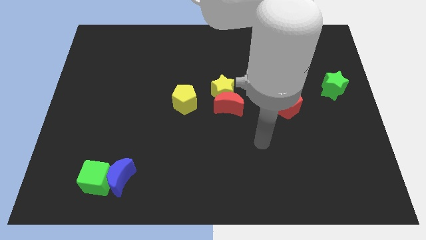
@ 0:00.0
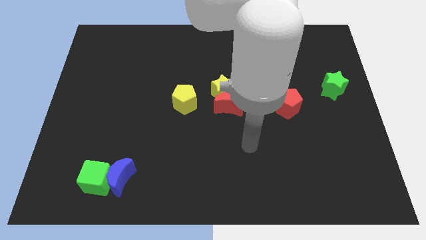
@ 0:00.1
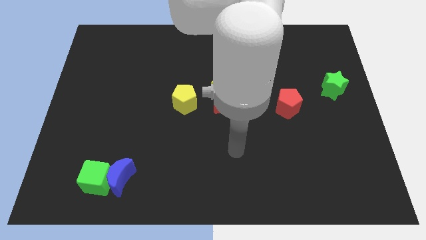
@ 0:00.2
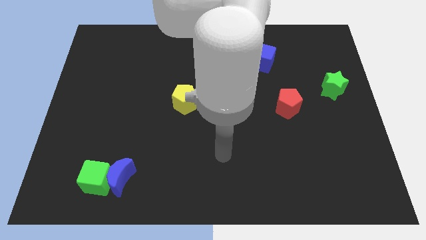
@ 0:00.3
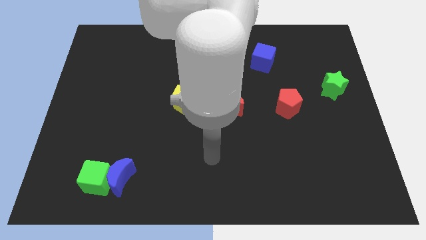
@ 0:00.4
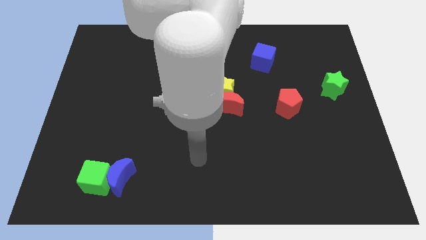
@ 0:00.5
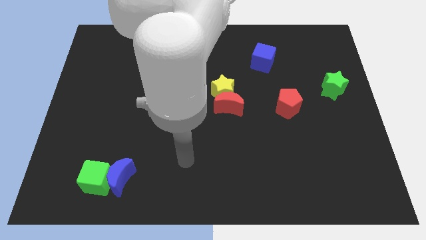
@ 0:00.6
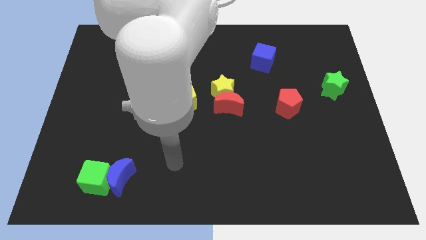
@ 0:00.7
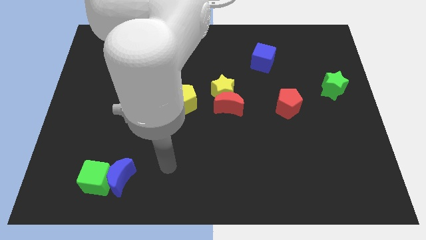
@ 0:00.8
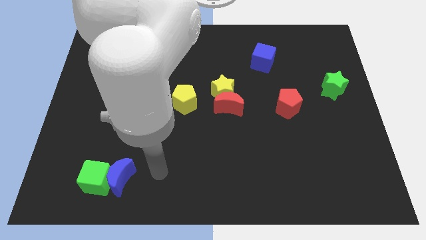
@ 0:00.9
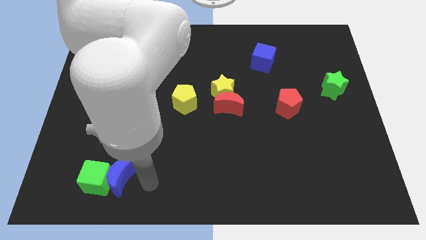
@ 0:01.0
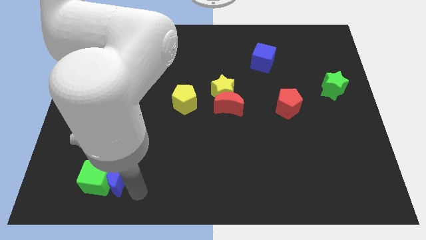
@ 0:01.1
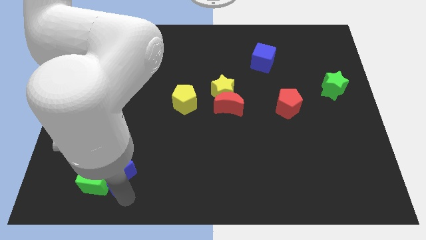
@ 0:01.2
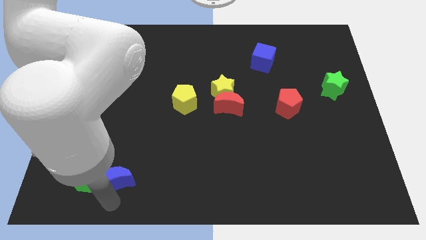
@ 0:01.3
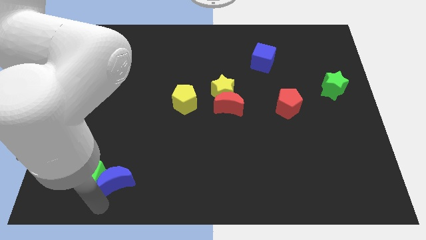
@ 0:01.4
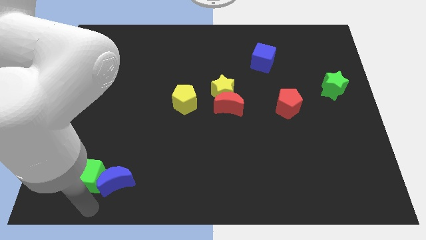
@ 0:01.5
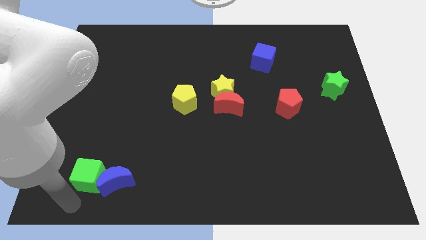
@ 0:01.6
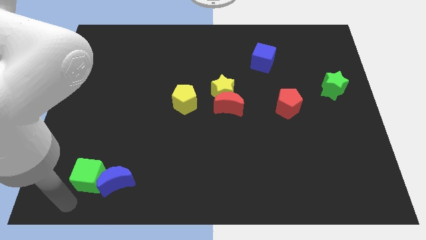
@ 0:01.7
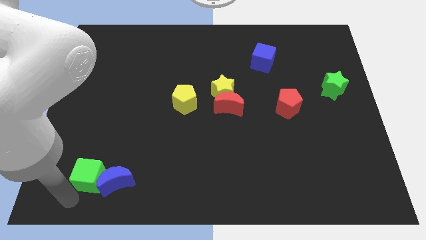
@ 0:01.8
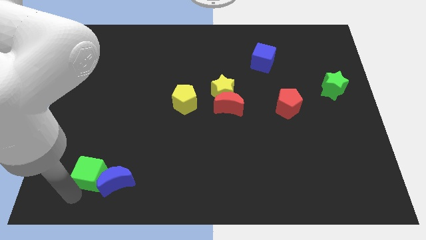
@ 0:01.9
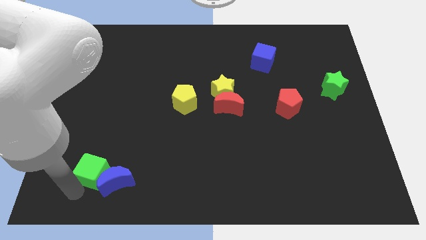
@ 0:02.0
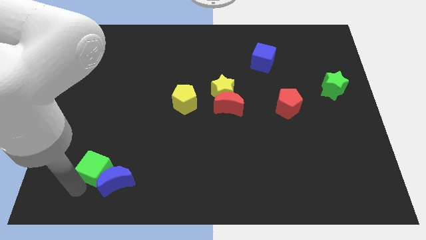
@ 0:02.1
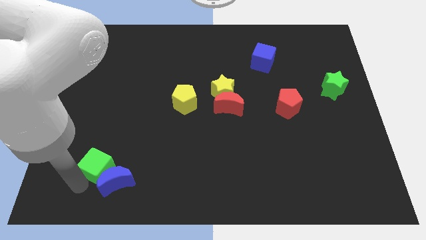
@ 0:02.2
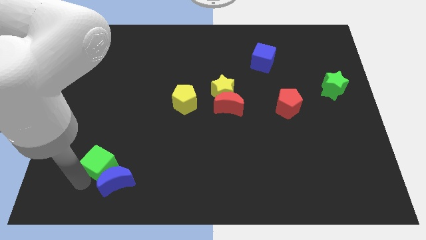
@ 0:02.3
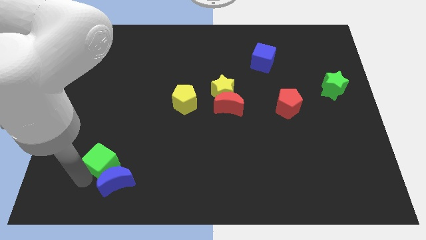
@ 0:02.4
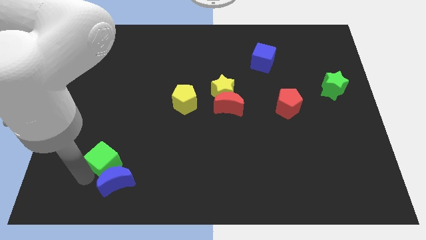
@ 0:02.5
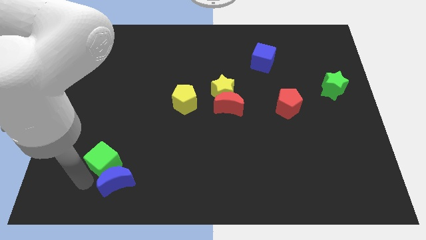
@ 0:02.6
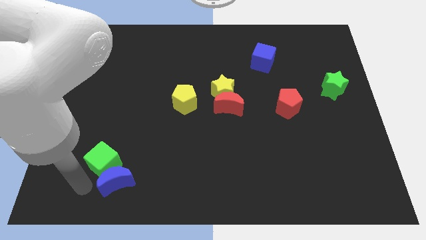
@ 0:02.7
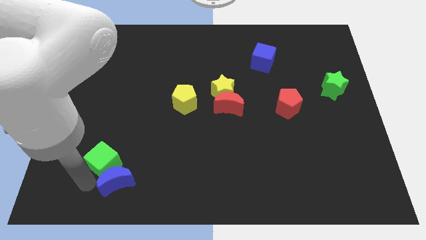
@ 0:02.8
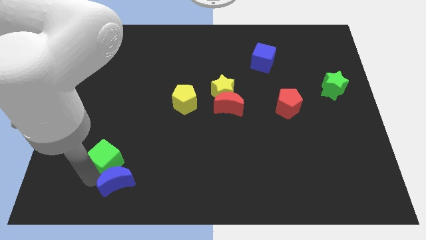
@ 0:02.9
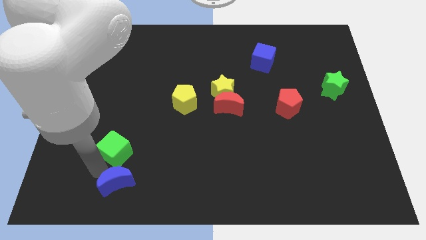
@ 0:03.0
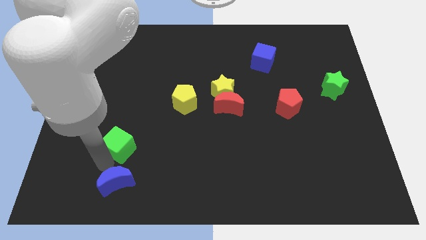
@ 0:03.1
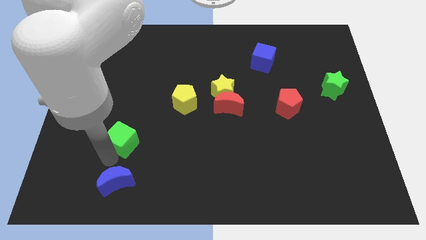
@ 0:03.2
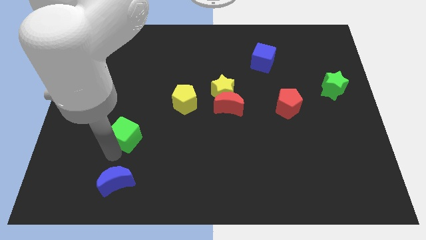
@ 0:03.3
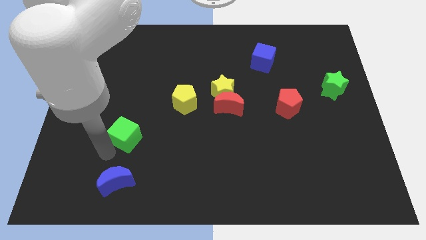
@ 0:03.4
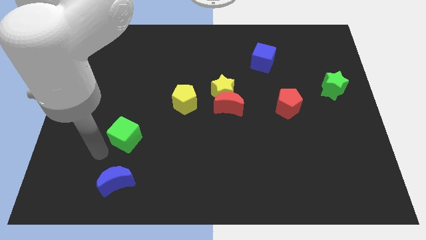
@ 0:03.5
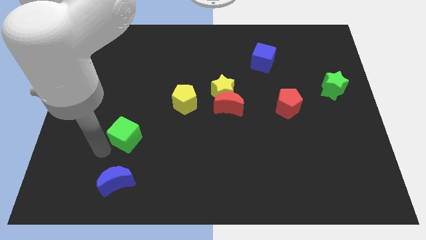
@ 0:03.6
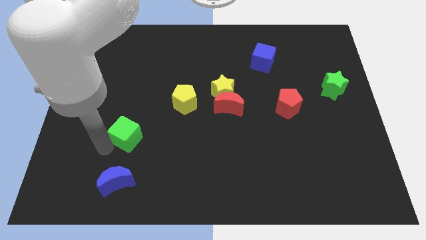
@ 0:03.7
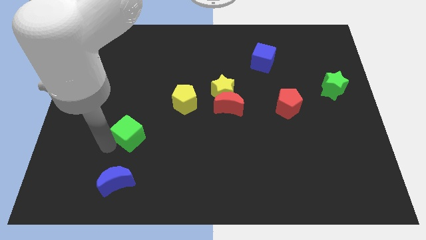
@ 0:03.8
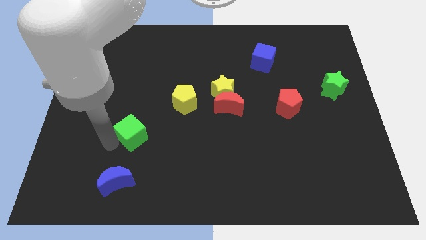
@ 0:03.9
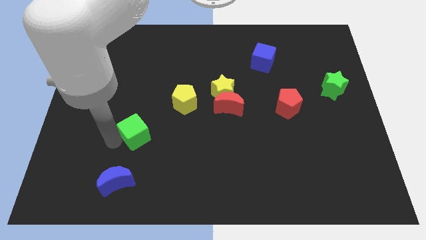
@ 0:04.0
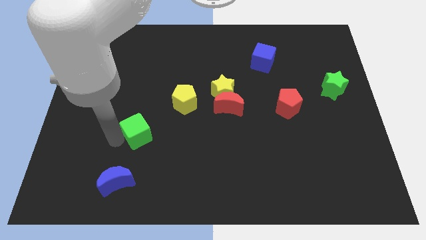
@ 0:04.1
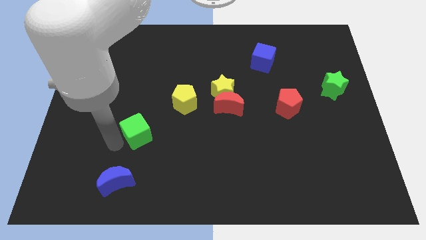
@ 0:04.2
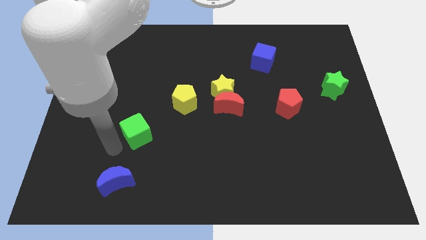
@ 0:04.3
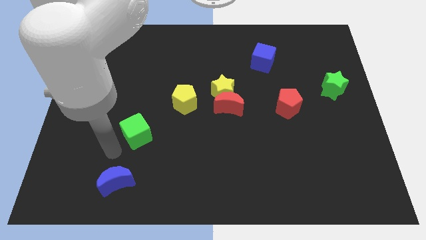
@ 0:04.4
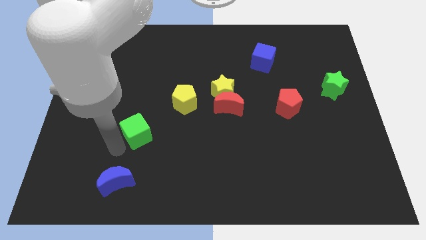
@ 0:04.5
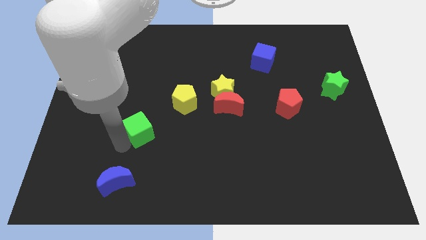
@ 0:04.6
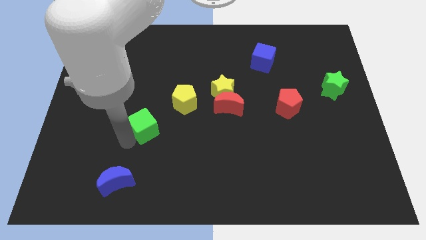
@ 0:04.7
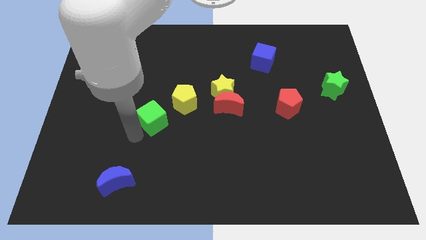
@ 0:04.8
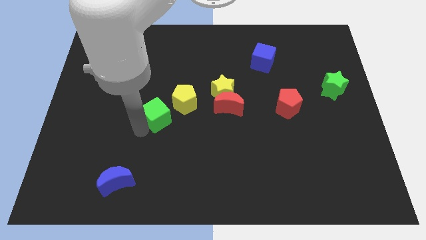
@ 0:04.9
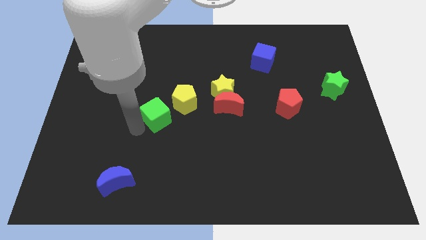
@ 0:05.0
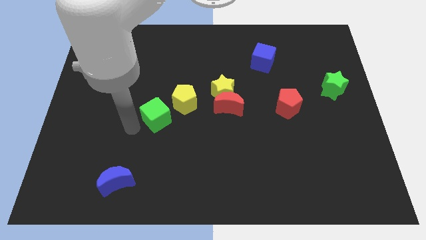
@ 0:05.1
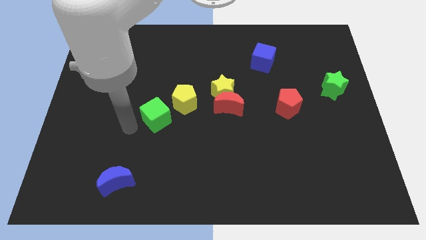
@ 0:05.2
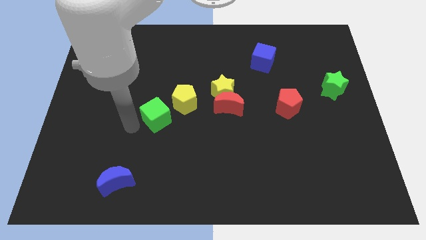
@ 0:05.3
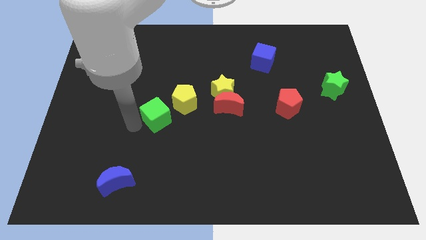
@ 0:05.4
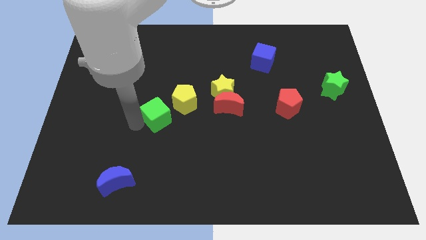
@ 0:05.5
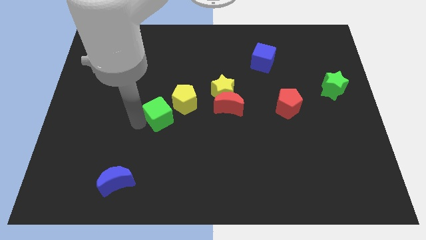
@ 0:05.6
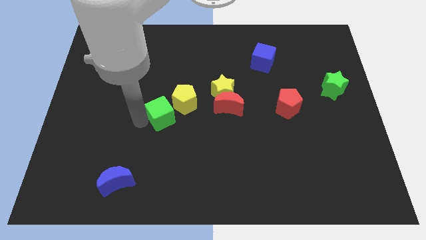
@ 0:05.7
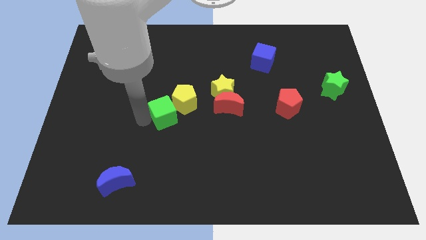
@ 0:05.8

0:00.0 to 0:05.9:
slide the green cube to the yellow pentagon

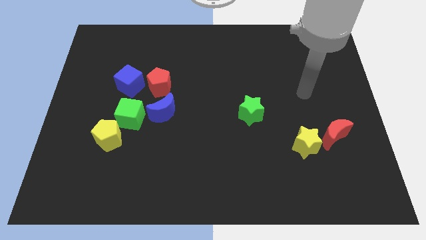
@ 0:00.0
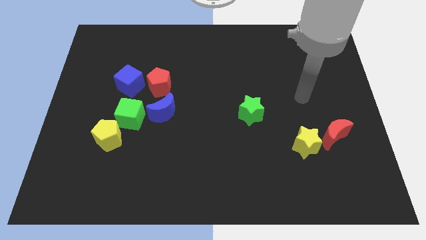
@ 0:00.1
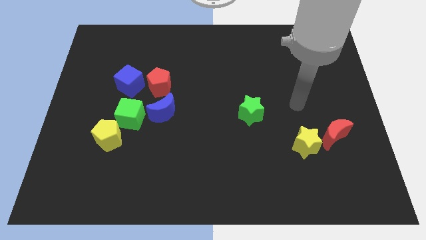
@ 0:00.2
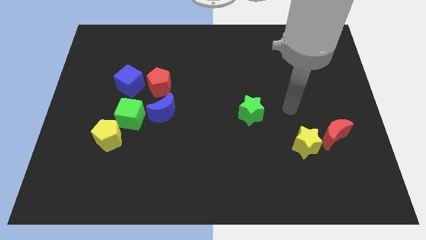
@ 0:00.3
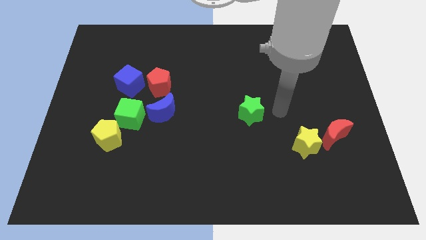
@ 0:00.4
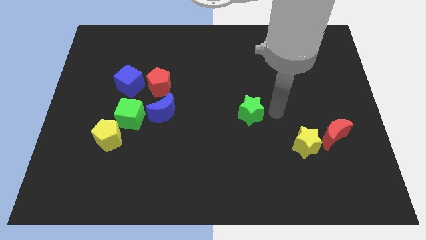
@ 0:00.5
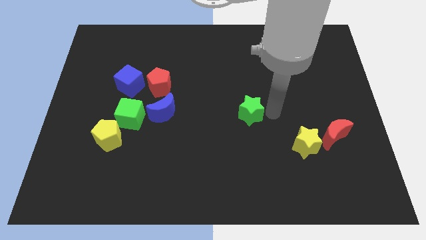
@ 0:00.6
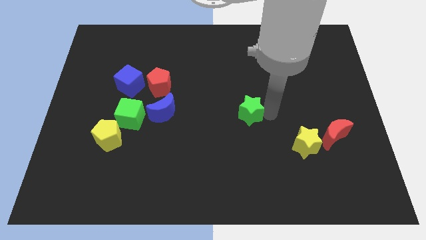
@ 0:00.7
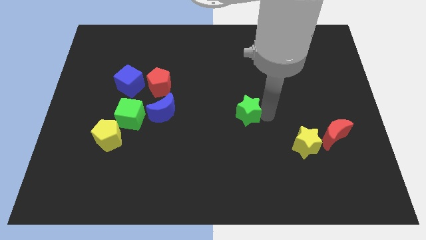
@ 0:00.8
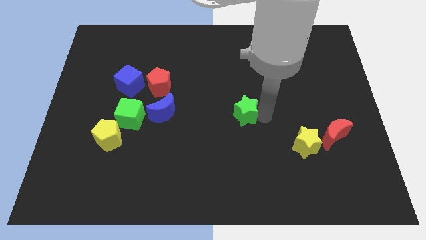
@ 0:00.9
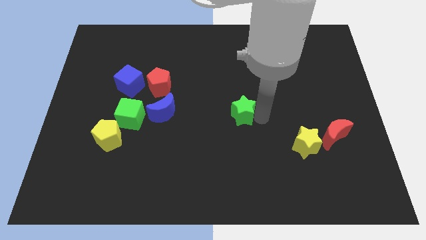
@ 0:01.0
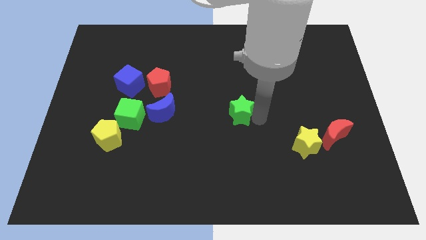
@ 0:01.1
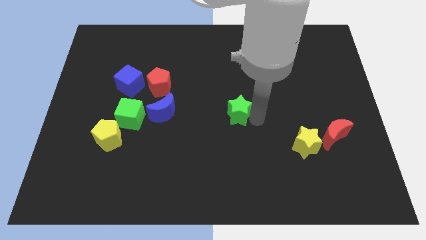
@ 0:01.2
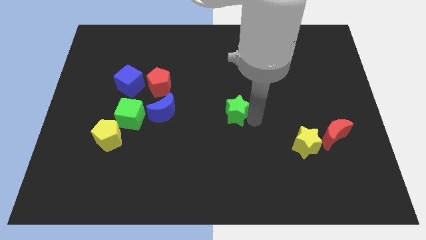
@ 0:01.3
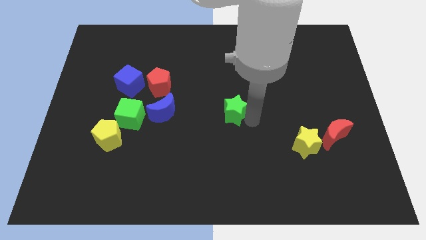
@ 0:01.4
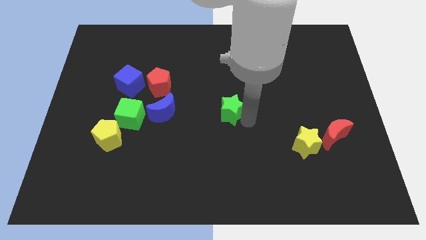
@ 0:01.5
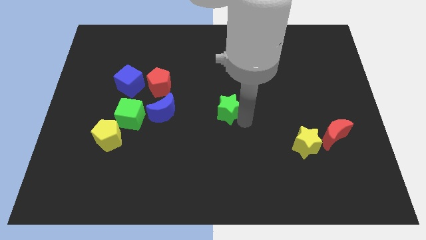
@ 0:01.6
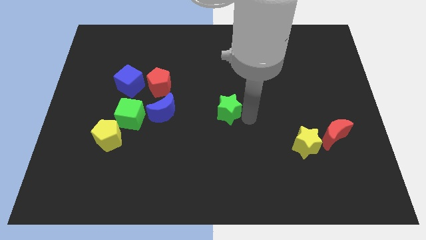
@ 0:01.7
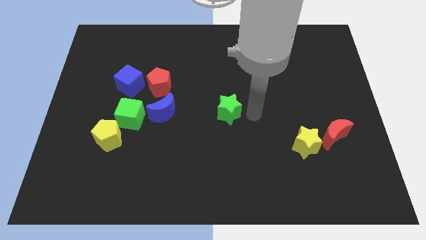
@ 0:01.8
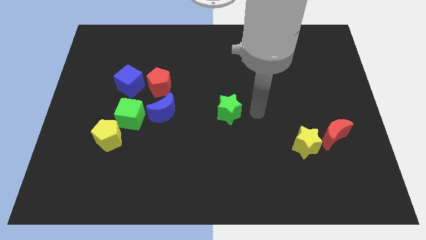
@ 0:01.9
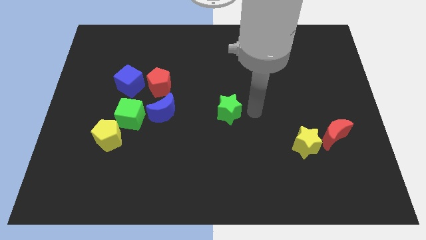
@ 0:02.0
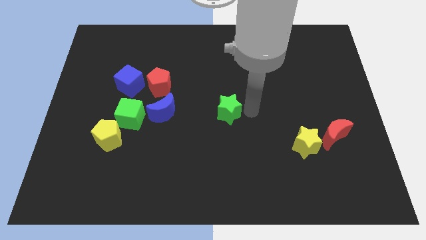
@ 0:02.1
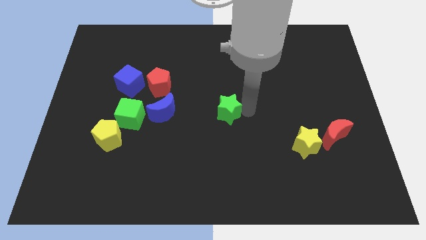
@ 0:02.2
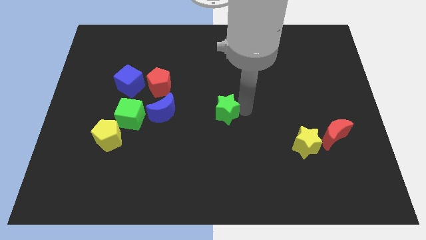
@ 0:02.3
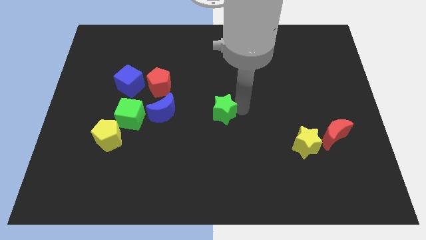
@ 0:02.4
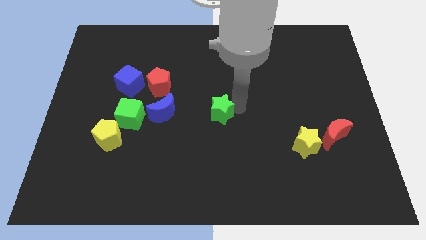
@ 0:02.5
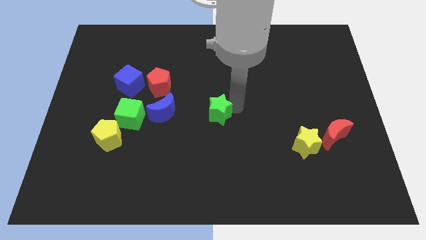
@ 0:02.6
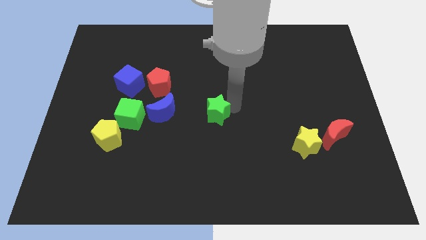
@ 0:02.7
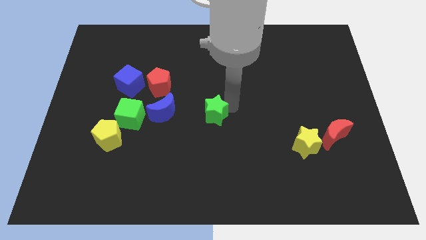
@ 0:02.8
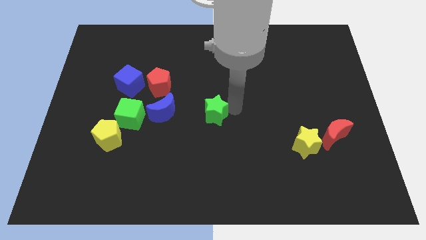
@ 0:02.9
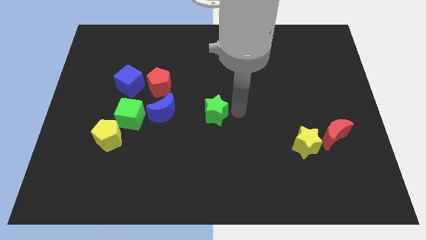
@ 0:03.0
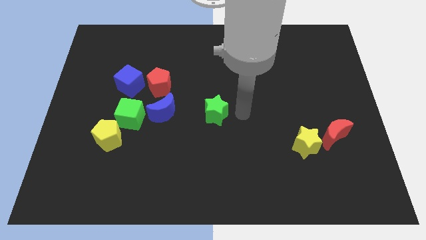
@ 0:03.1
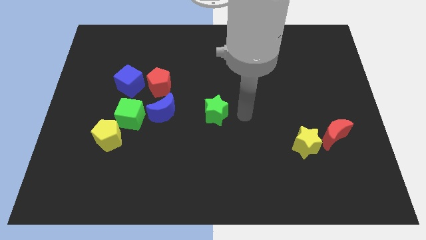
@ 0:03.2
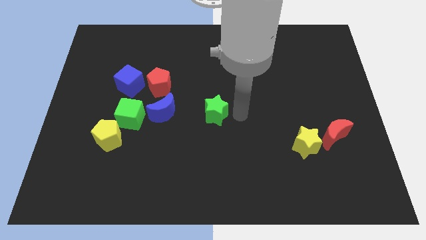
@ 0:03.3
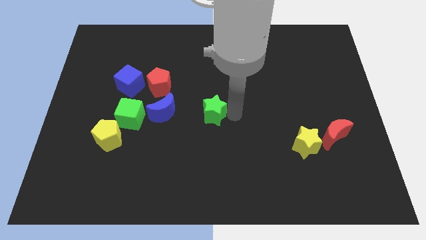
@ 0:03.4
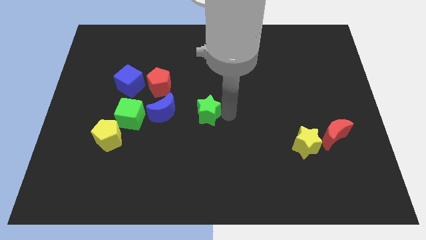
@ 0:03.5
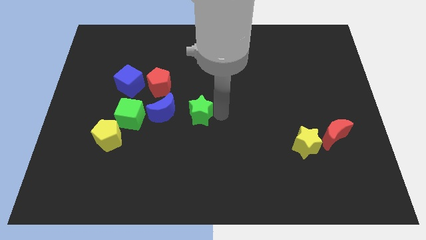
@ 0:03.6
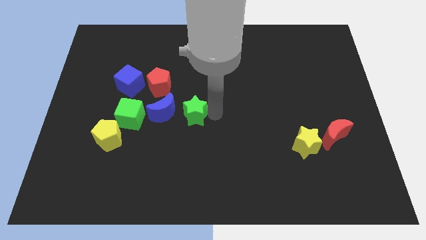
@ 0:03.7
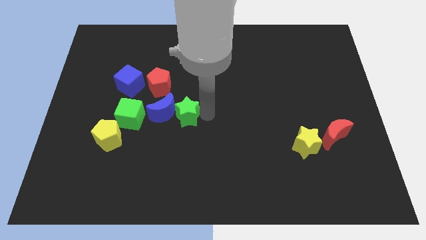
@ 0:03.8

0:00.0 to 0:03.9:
push the green star next to the blue moon
